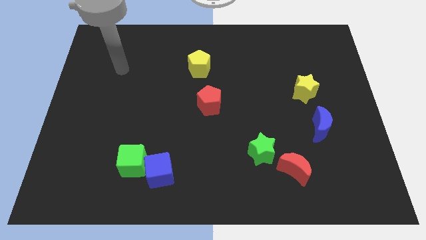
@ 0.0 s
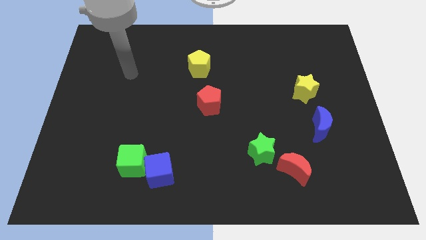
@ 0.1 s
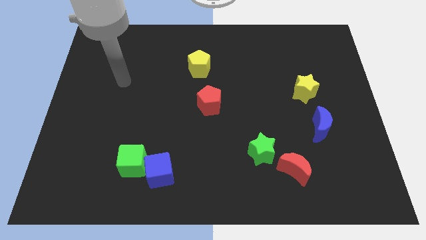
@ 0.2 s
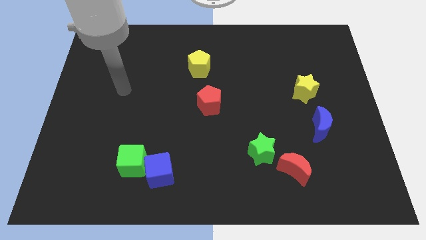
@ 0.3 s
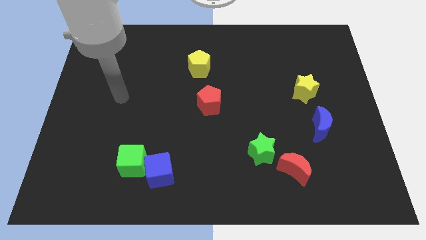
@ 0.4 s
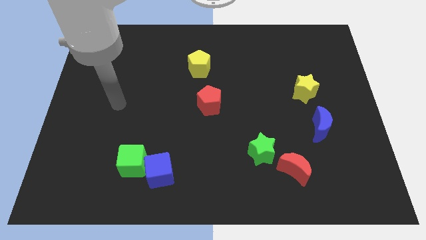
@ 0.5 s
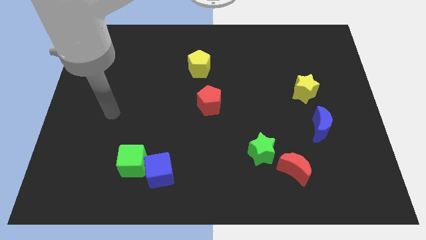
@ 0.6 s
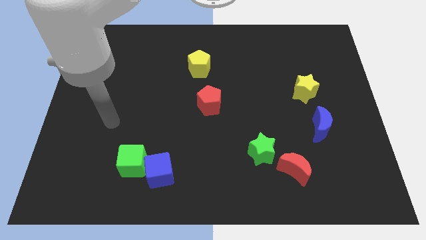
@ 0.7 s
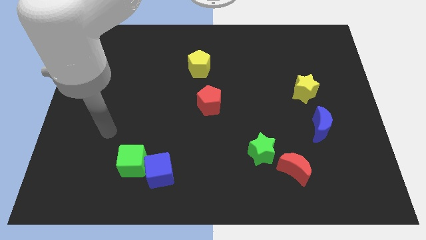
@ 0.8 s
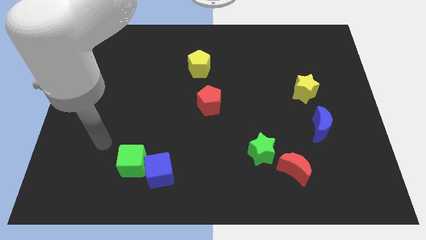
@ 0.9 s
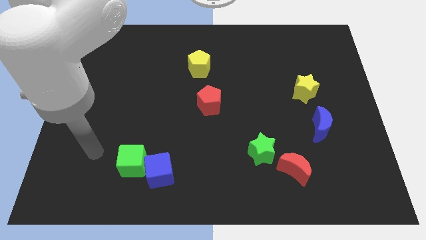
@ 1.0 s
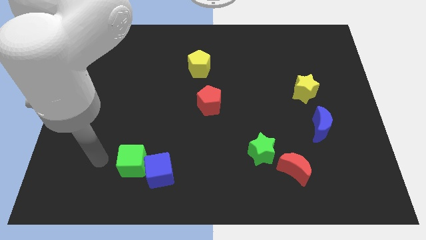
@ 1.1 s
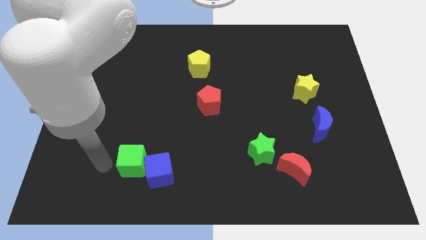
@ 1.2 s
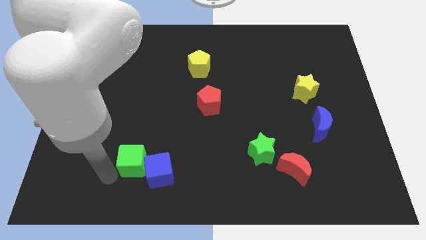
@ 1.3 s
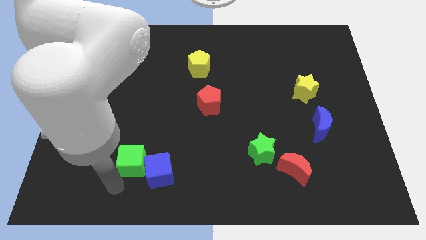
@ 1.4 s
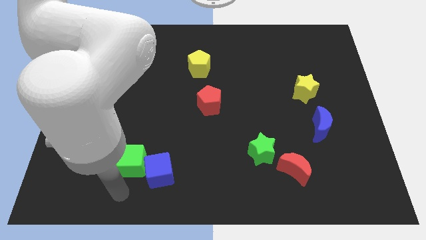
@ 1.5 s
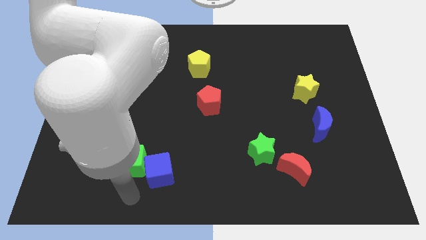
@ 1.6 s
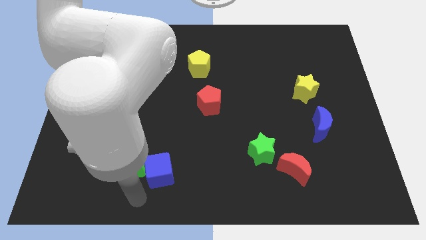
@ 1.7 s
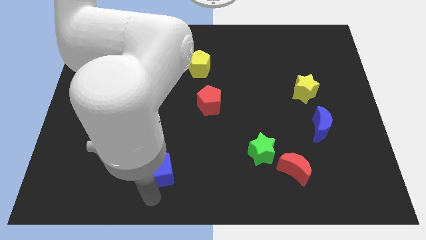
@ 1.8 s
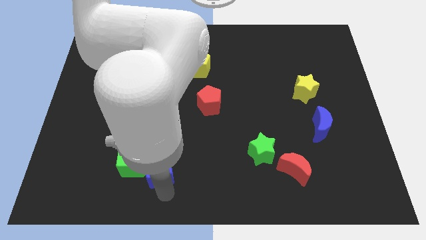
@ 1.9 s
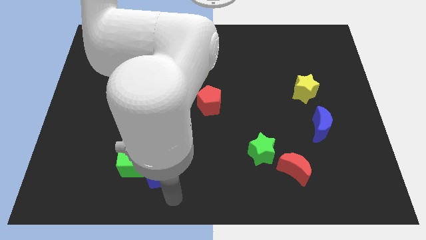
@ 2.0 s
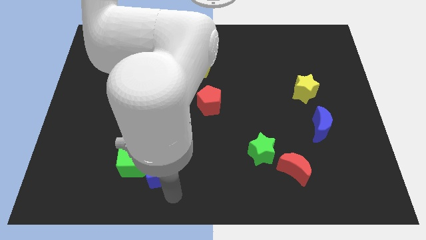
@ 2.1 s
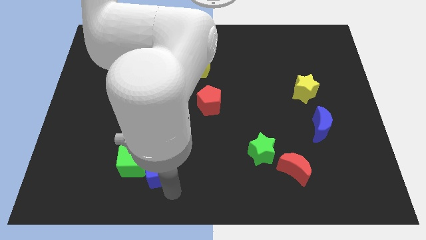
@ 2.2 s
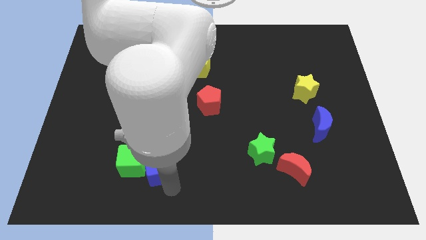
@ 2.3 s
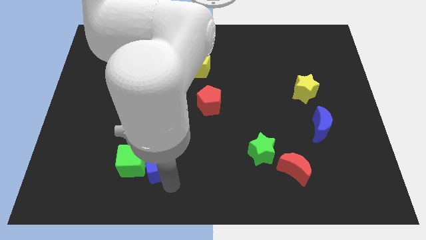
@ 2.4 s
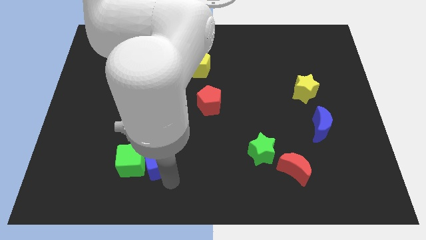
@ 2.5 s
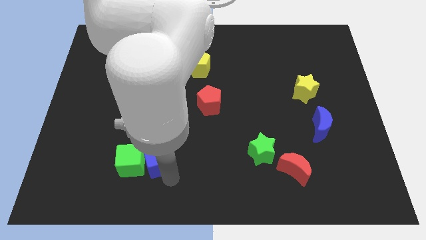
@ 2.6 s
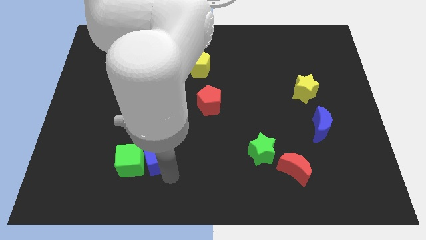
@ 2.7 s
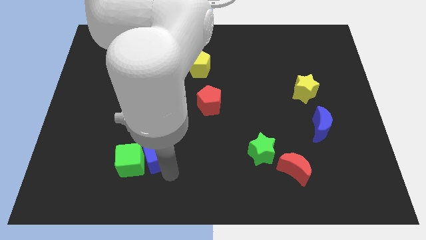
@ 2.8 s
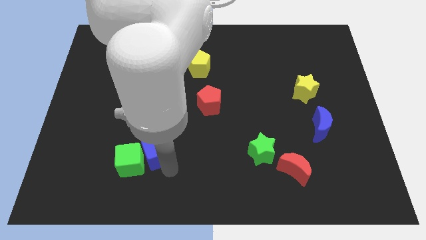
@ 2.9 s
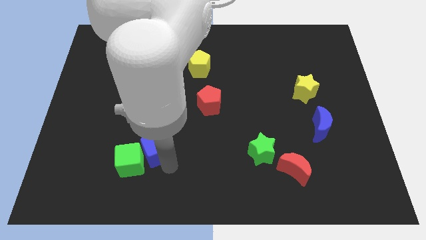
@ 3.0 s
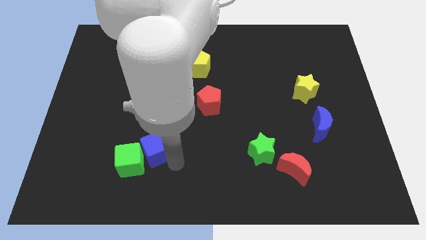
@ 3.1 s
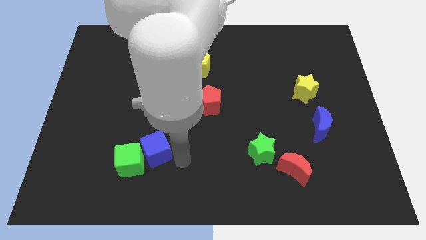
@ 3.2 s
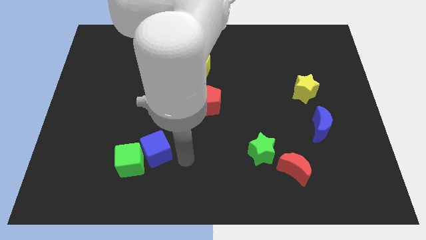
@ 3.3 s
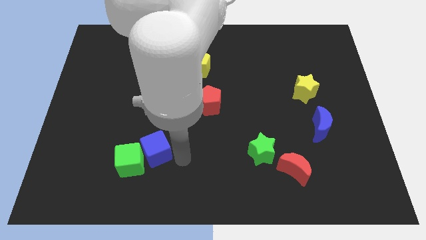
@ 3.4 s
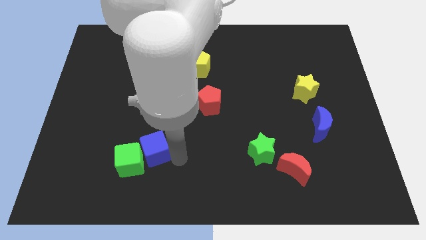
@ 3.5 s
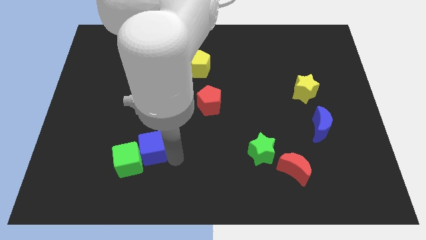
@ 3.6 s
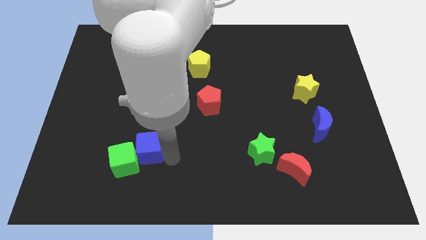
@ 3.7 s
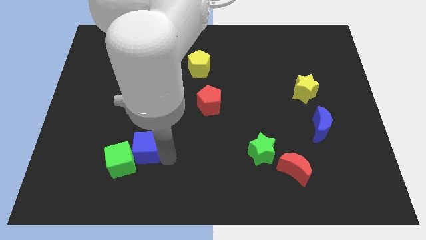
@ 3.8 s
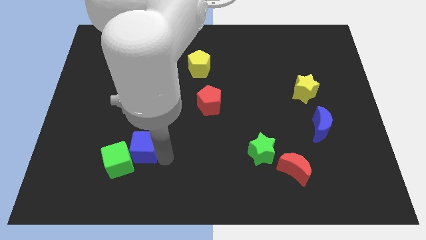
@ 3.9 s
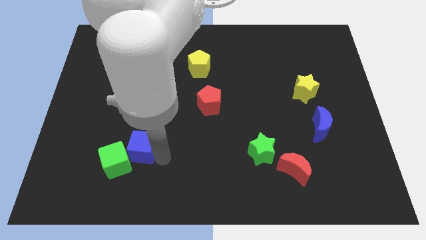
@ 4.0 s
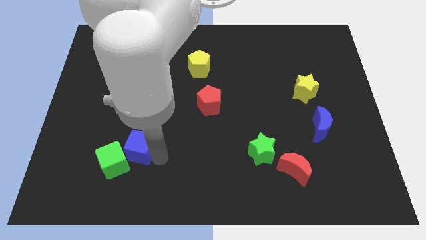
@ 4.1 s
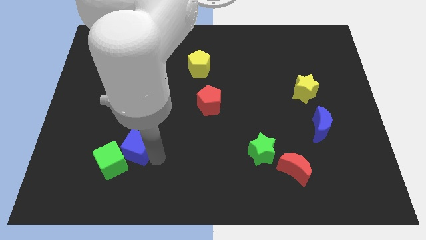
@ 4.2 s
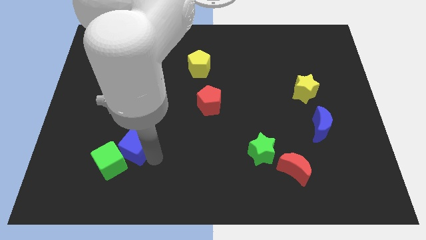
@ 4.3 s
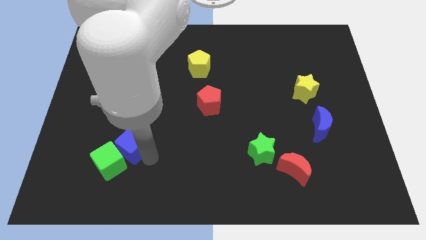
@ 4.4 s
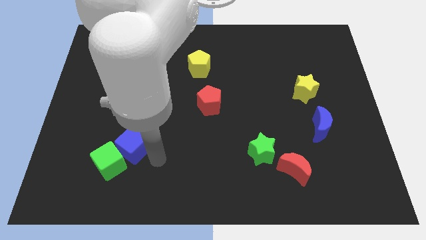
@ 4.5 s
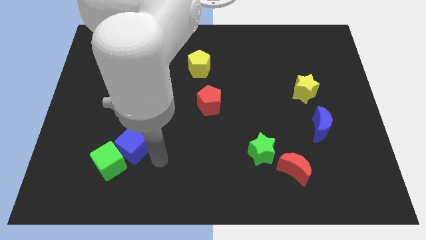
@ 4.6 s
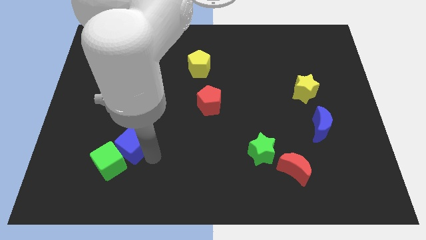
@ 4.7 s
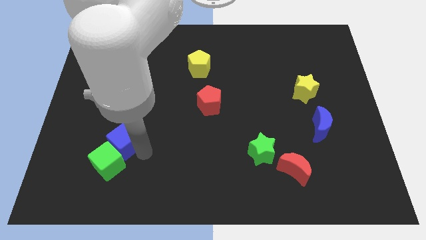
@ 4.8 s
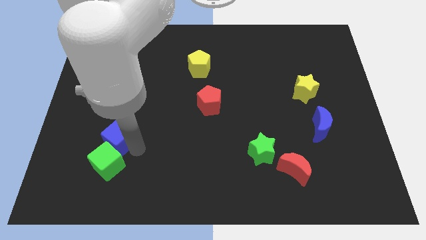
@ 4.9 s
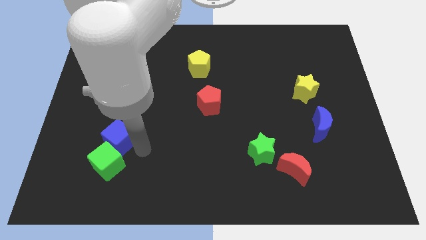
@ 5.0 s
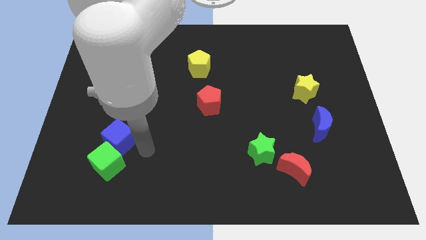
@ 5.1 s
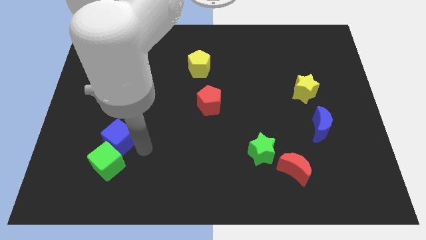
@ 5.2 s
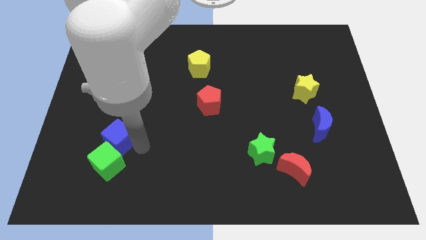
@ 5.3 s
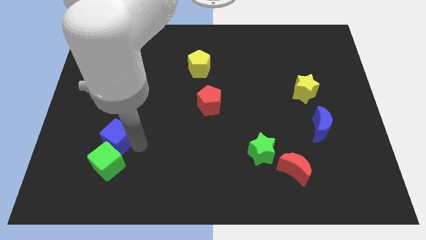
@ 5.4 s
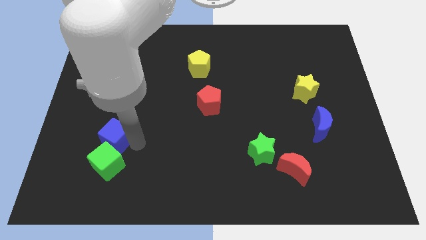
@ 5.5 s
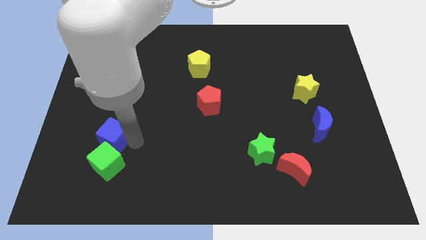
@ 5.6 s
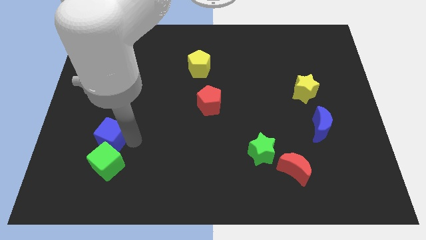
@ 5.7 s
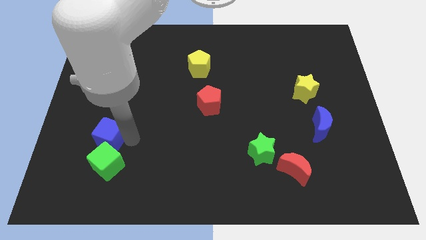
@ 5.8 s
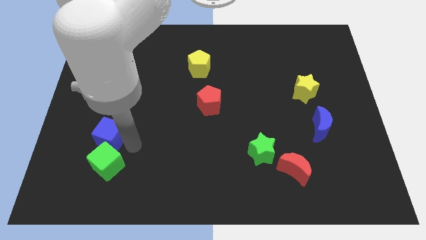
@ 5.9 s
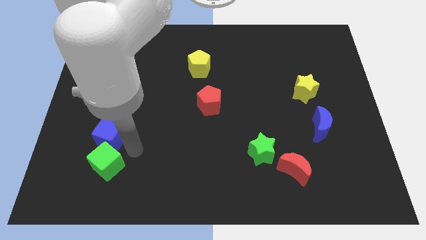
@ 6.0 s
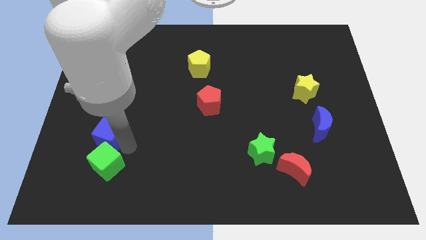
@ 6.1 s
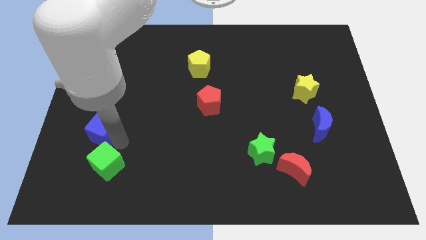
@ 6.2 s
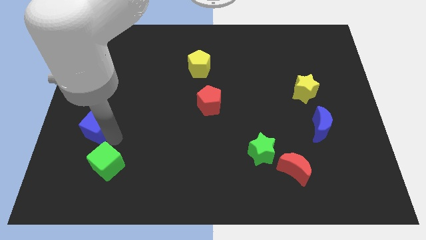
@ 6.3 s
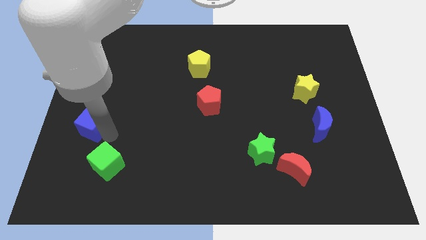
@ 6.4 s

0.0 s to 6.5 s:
slide the blue cube to the center left
